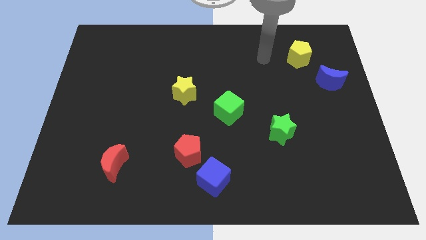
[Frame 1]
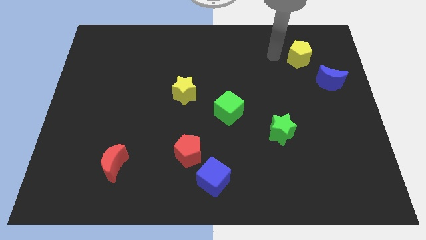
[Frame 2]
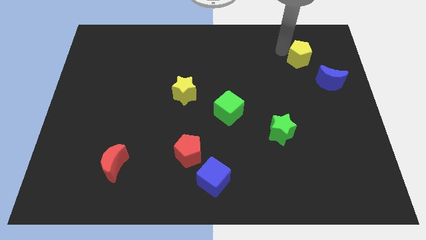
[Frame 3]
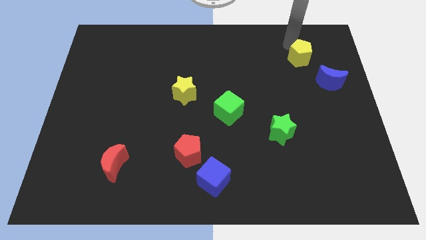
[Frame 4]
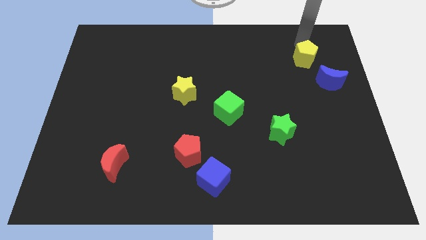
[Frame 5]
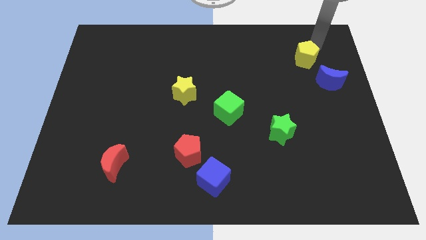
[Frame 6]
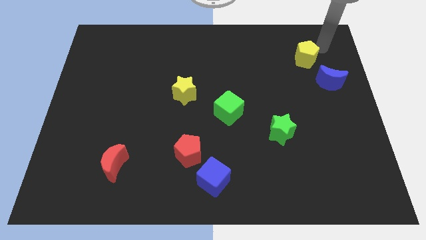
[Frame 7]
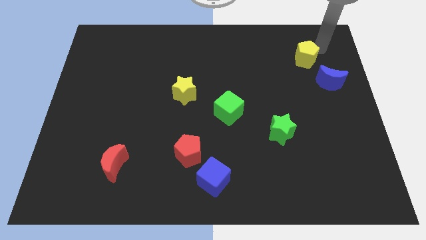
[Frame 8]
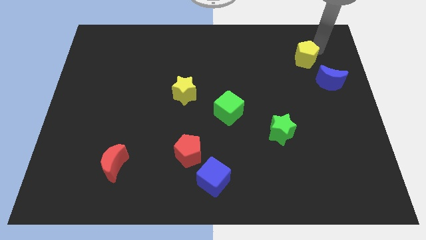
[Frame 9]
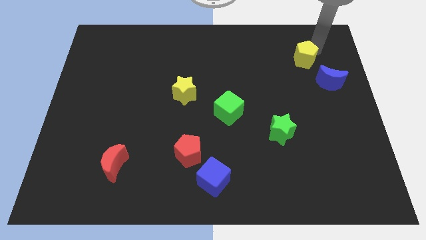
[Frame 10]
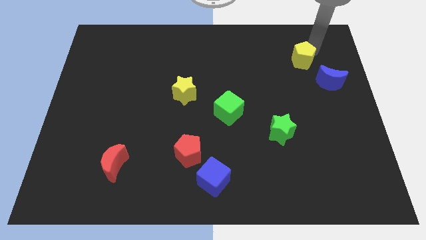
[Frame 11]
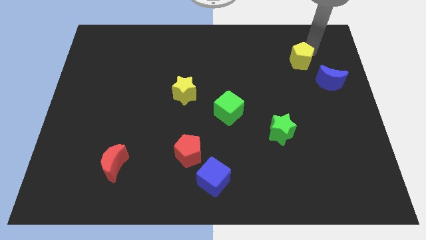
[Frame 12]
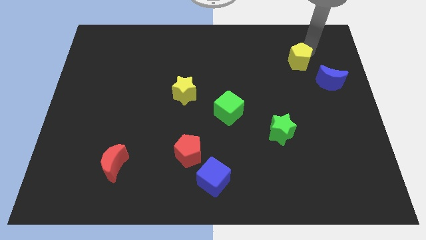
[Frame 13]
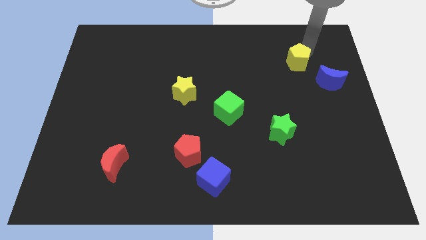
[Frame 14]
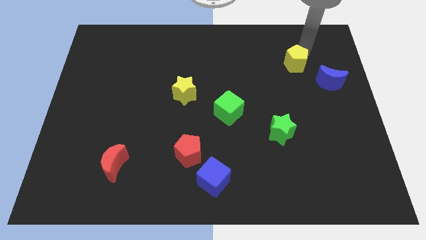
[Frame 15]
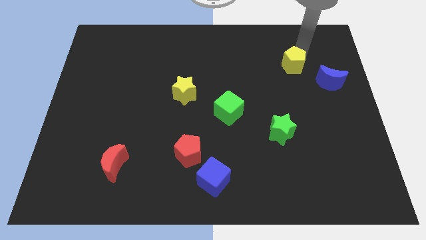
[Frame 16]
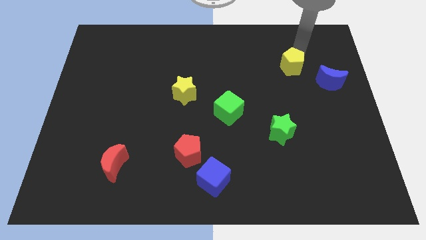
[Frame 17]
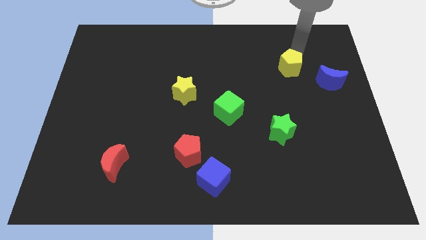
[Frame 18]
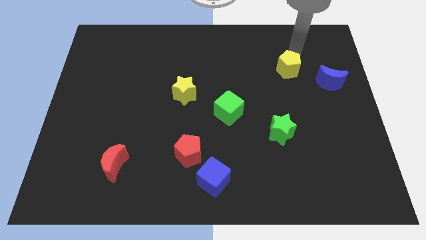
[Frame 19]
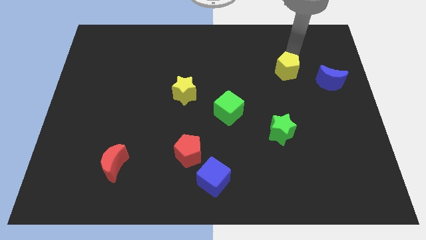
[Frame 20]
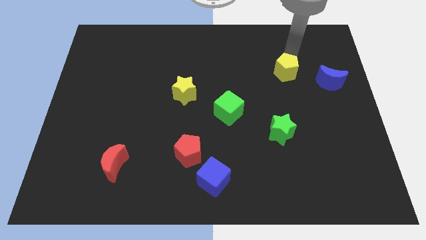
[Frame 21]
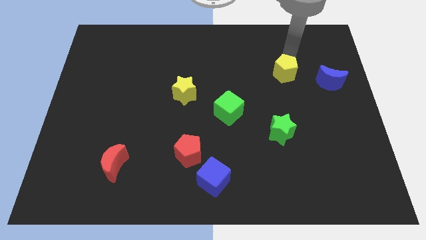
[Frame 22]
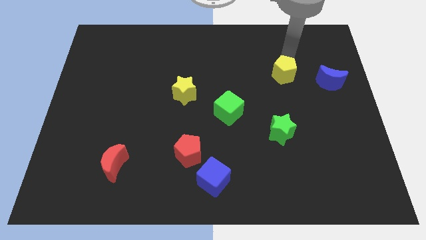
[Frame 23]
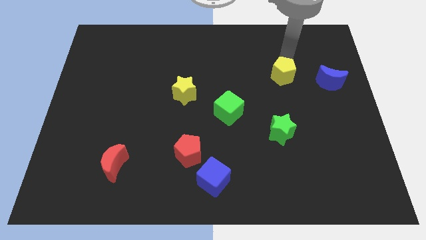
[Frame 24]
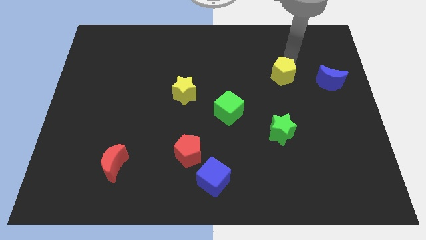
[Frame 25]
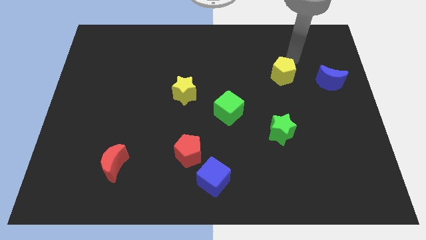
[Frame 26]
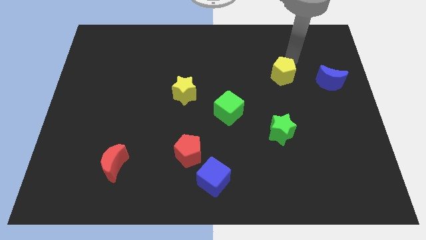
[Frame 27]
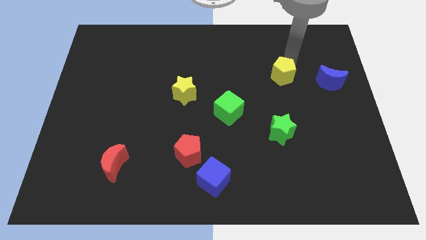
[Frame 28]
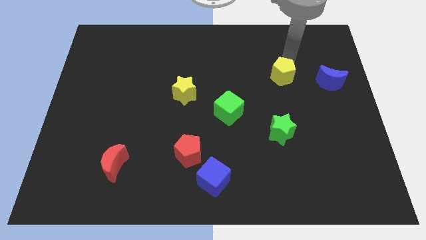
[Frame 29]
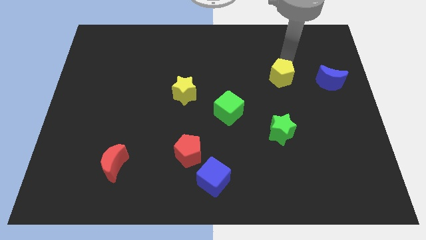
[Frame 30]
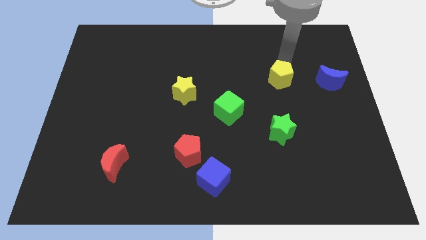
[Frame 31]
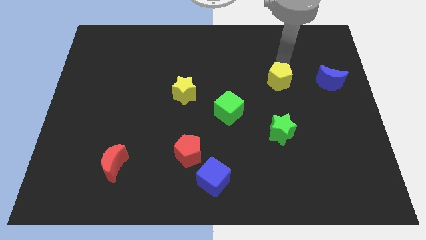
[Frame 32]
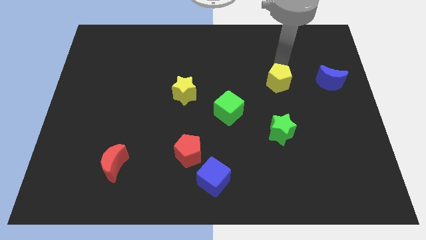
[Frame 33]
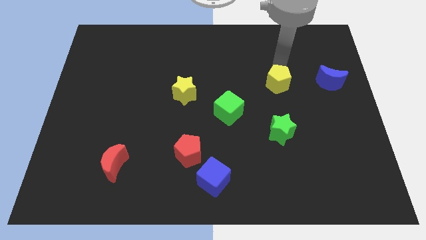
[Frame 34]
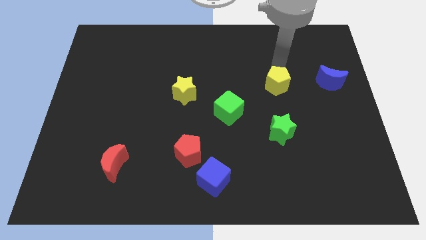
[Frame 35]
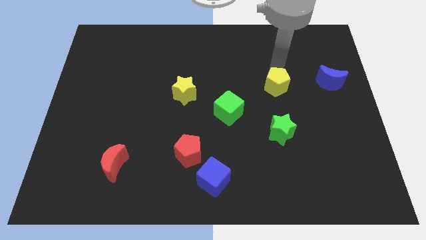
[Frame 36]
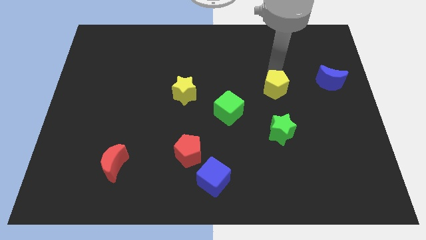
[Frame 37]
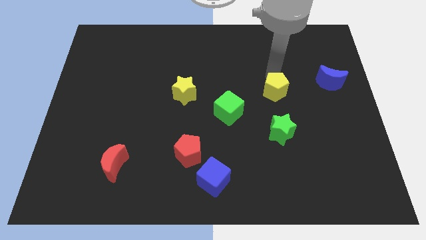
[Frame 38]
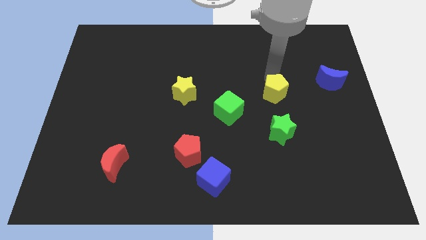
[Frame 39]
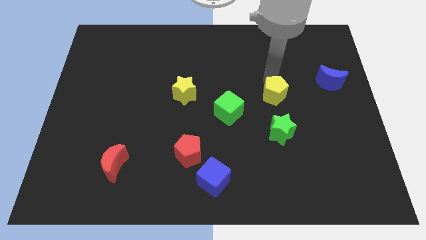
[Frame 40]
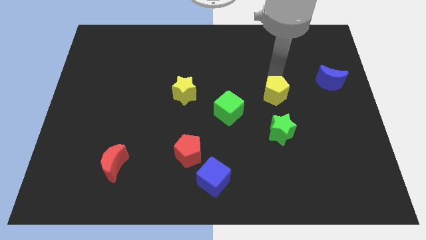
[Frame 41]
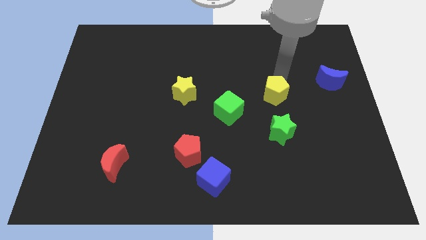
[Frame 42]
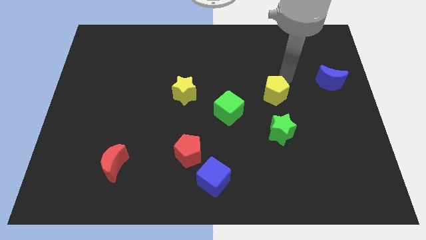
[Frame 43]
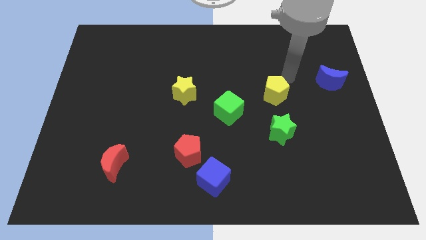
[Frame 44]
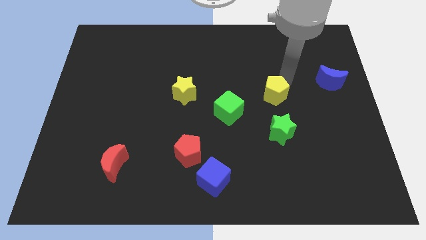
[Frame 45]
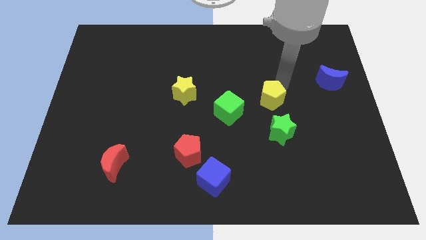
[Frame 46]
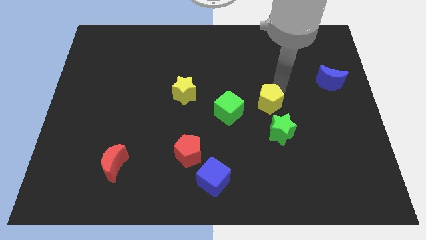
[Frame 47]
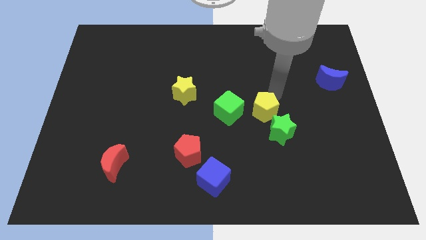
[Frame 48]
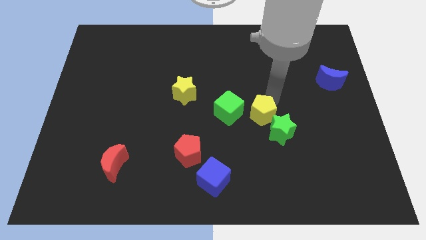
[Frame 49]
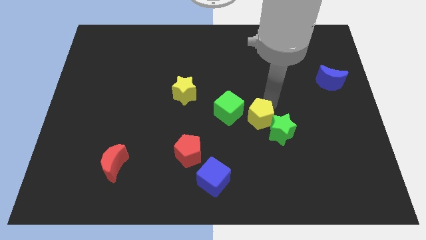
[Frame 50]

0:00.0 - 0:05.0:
move the yellow pentagon to the left side of the green star
